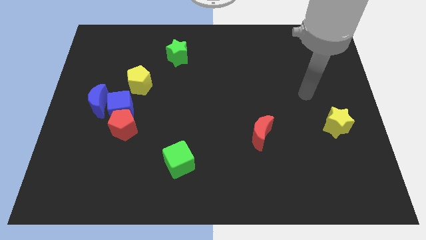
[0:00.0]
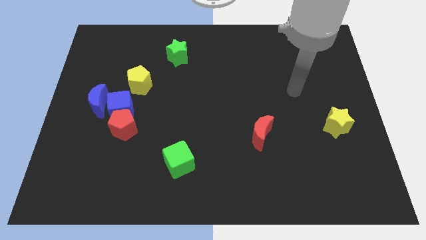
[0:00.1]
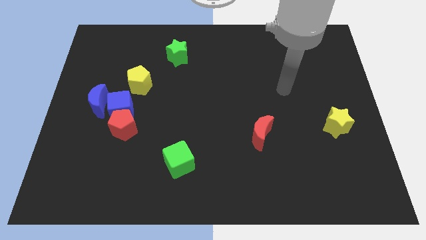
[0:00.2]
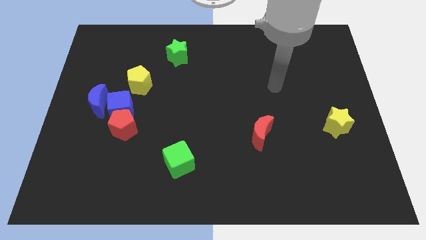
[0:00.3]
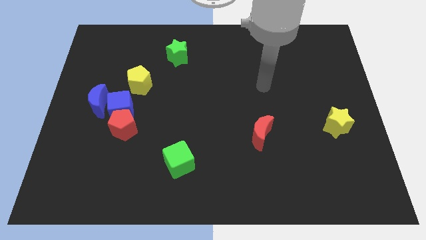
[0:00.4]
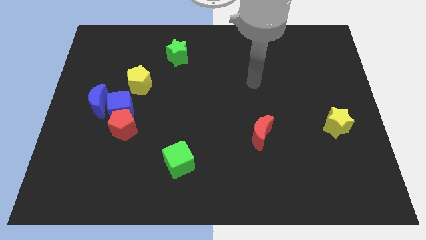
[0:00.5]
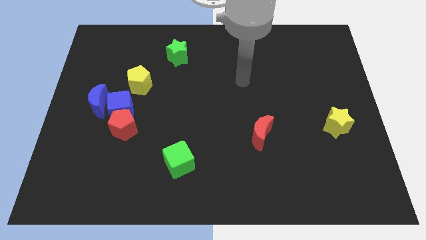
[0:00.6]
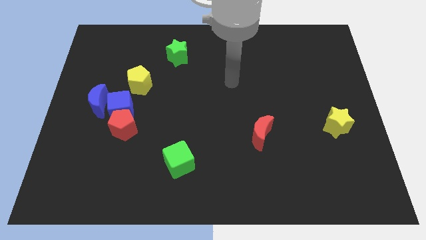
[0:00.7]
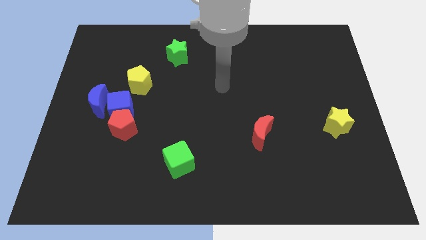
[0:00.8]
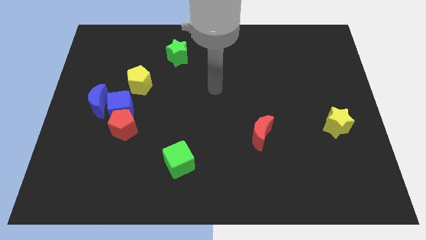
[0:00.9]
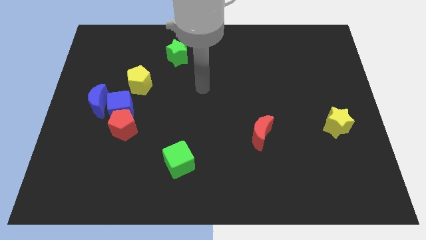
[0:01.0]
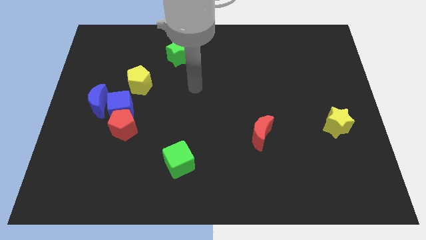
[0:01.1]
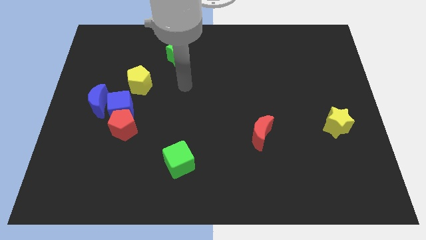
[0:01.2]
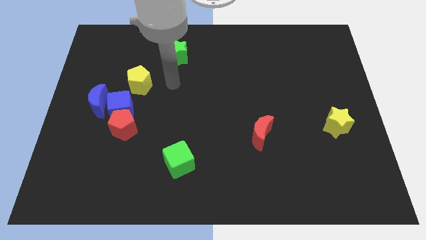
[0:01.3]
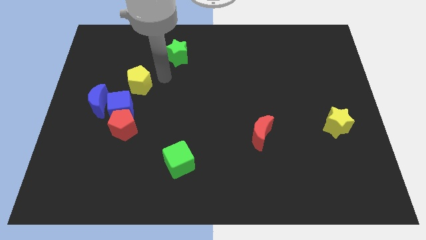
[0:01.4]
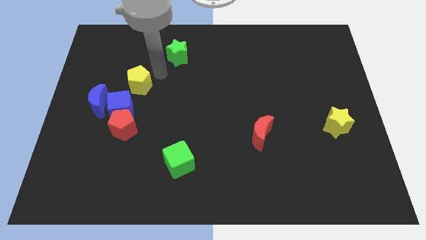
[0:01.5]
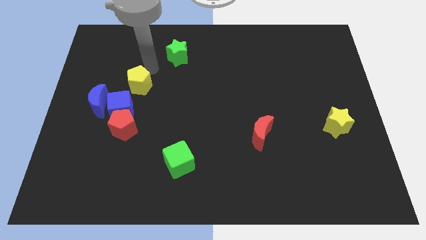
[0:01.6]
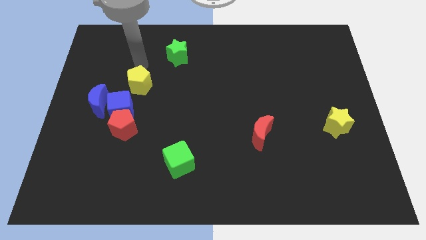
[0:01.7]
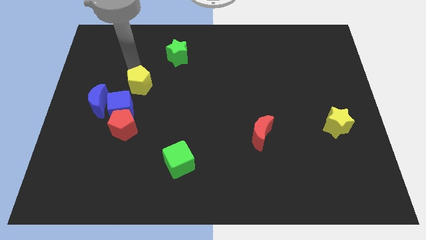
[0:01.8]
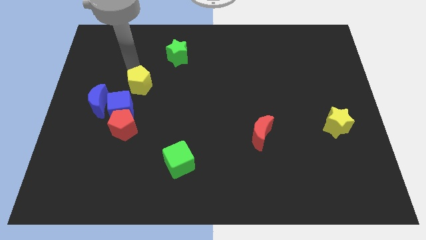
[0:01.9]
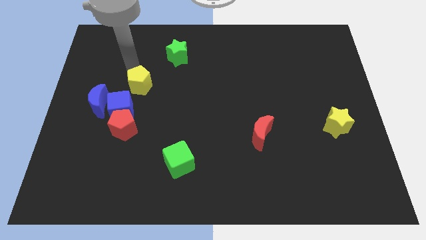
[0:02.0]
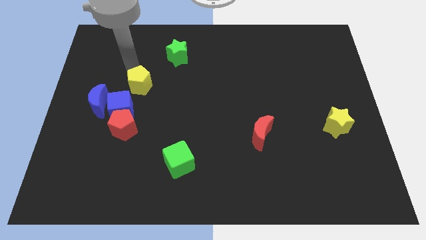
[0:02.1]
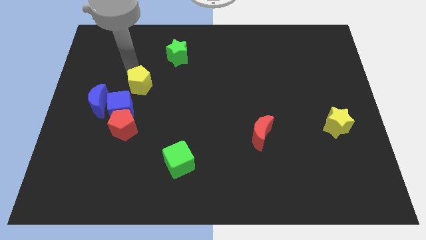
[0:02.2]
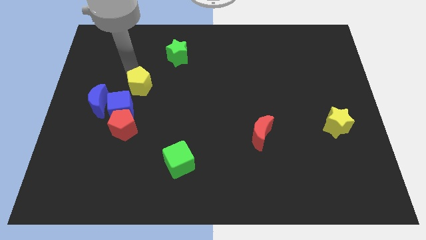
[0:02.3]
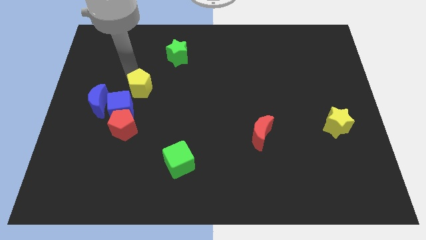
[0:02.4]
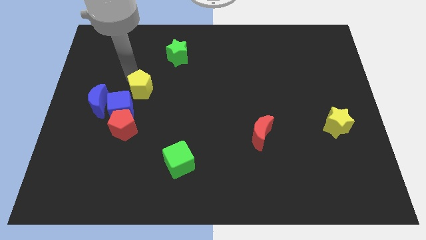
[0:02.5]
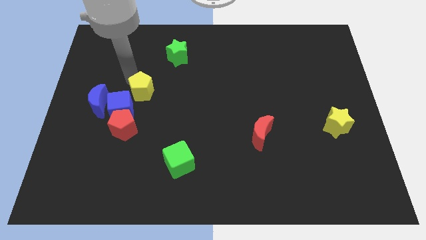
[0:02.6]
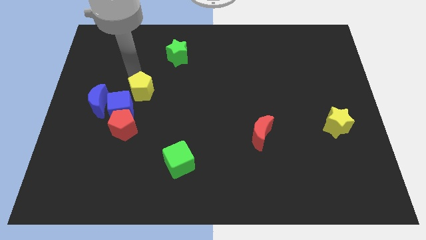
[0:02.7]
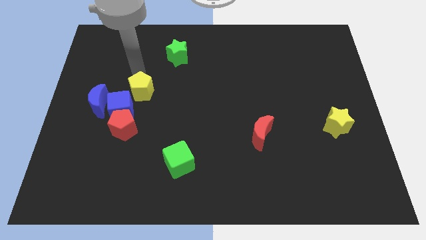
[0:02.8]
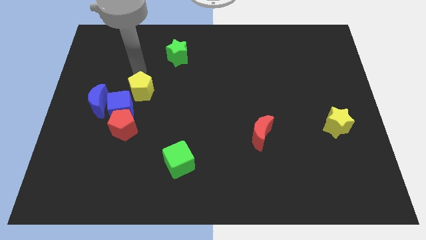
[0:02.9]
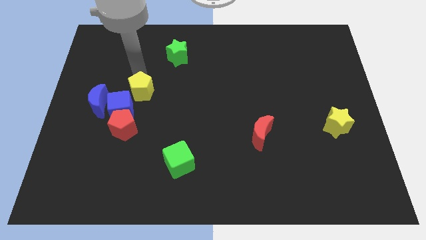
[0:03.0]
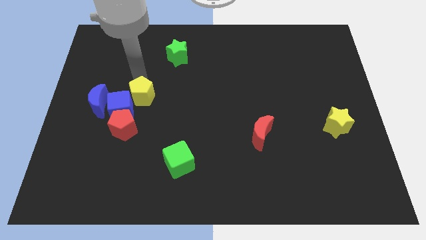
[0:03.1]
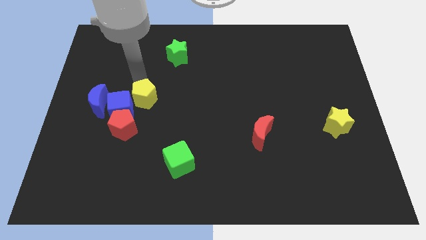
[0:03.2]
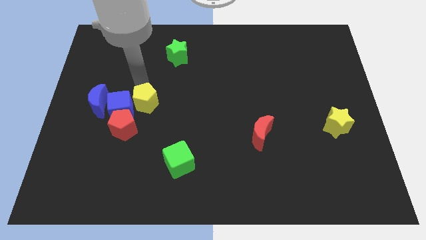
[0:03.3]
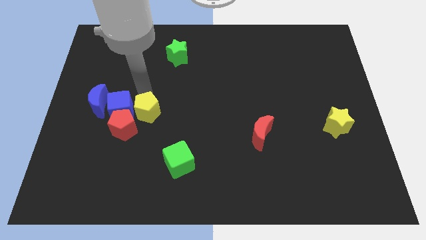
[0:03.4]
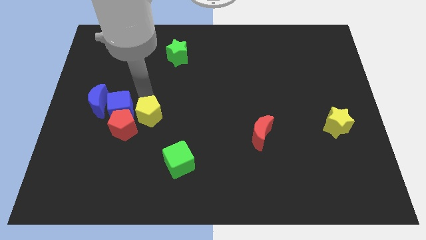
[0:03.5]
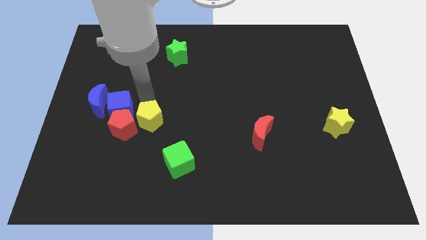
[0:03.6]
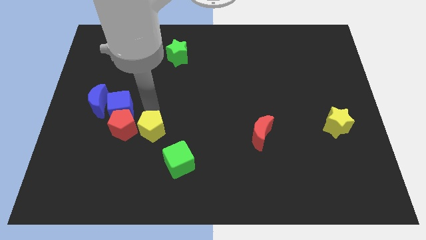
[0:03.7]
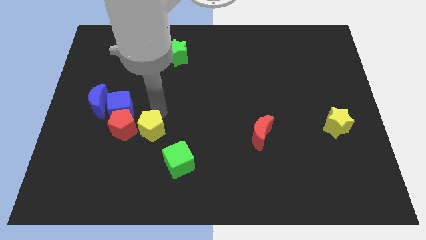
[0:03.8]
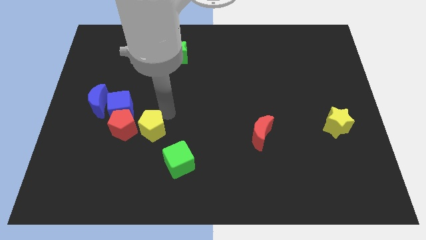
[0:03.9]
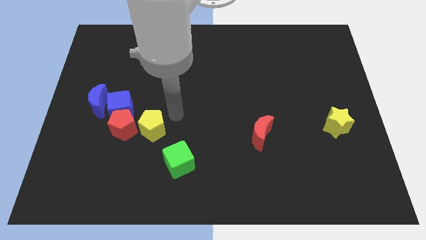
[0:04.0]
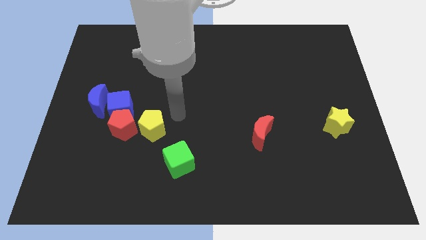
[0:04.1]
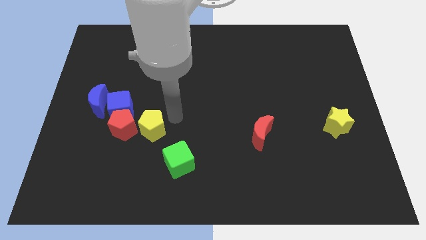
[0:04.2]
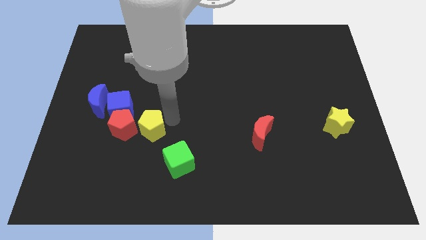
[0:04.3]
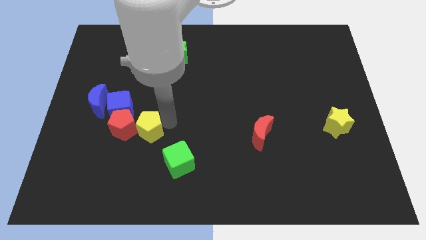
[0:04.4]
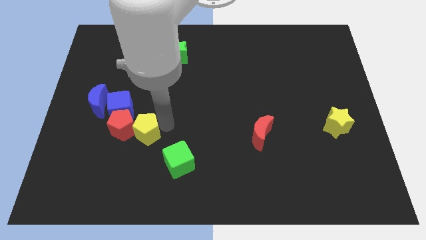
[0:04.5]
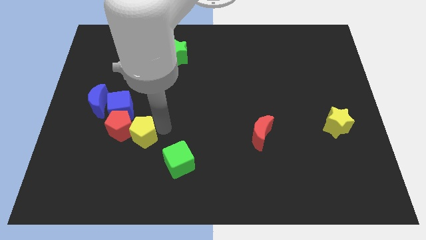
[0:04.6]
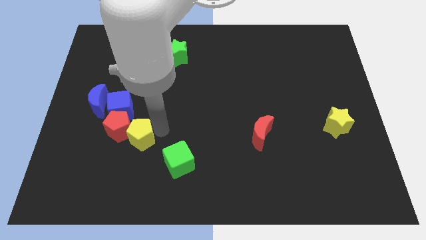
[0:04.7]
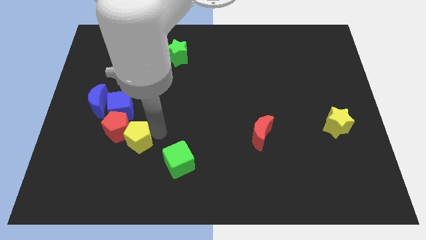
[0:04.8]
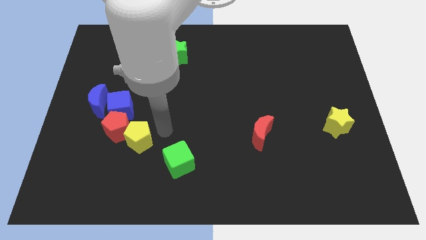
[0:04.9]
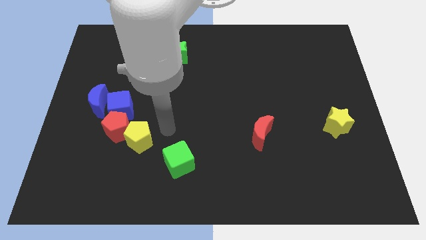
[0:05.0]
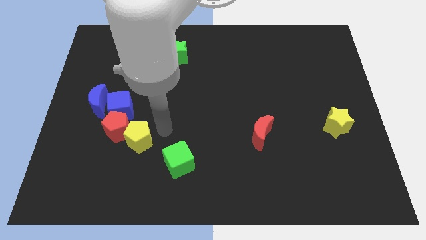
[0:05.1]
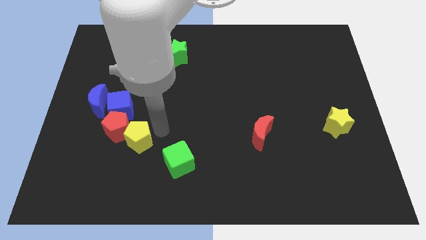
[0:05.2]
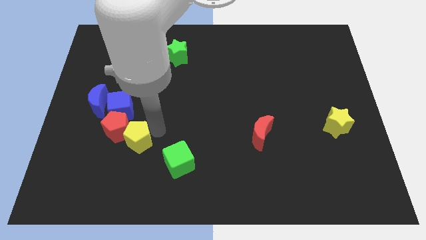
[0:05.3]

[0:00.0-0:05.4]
push the yellow pentagon to the bottom side of the blue cube

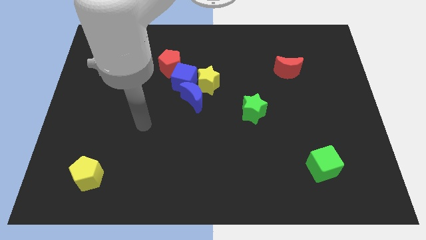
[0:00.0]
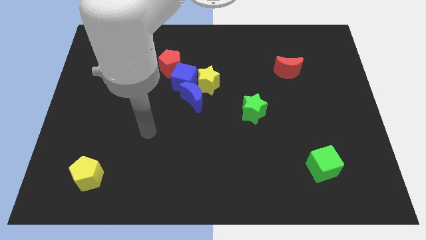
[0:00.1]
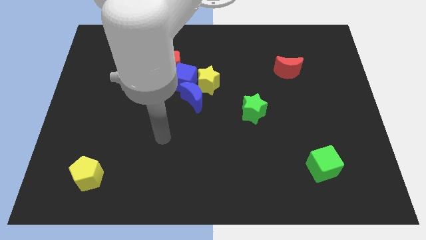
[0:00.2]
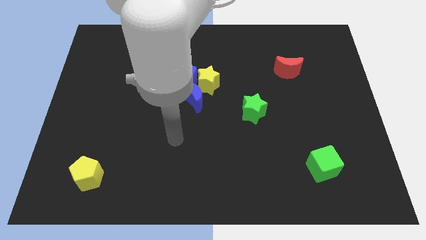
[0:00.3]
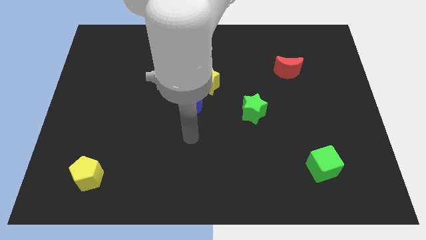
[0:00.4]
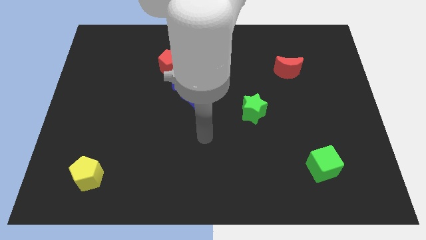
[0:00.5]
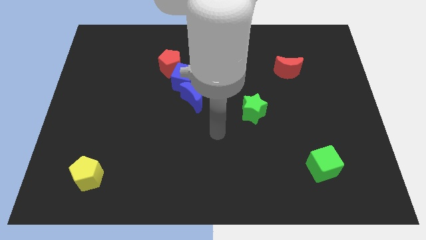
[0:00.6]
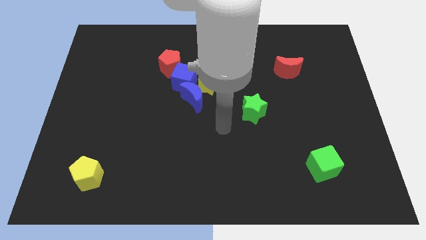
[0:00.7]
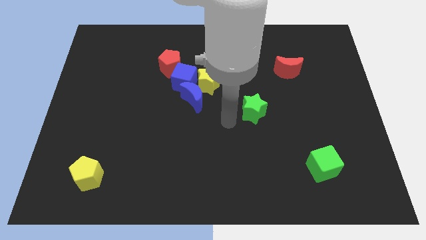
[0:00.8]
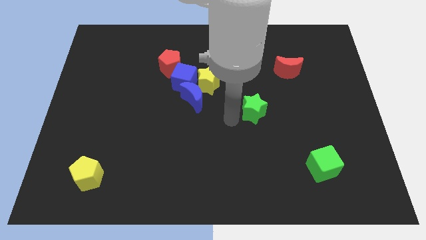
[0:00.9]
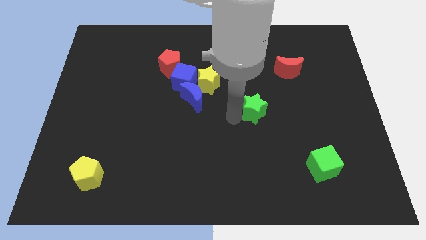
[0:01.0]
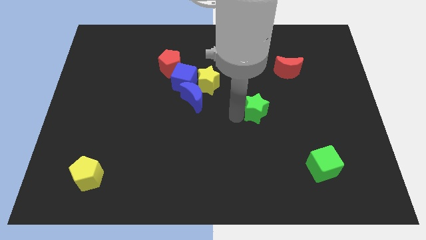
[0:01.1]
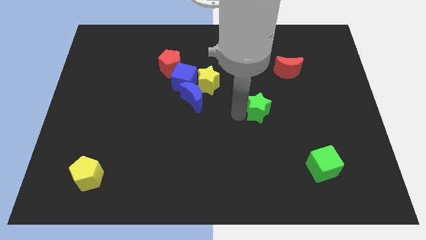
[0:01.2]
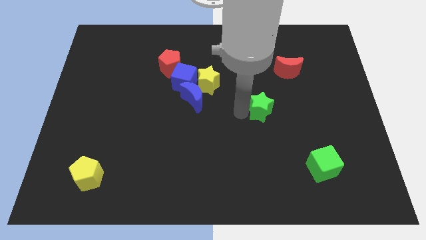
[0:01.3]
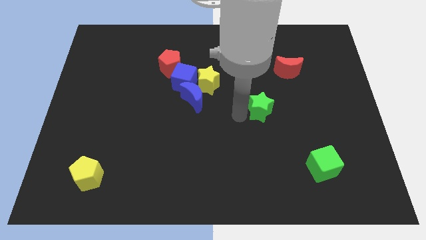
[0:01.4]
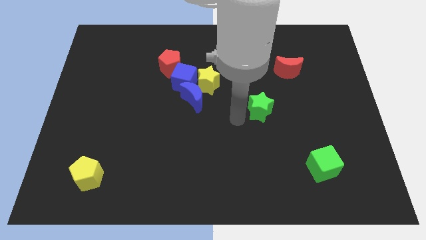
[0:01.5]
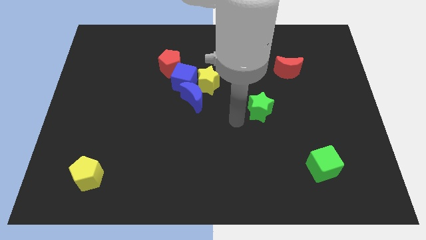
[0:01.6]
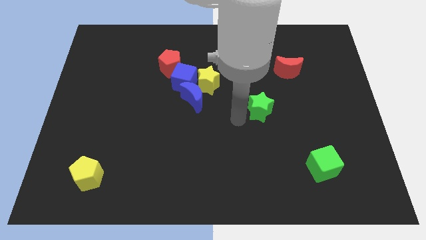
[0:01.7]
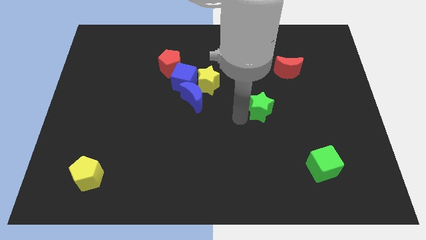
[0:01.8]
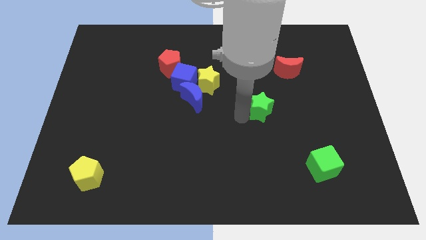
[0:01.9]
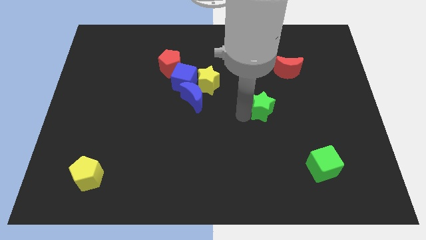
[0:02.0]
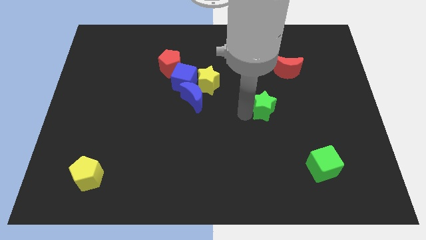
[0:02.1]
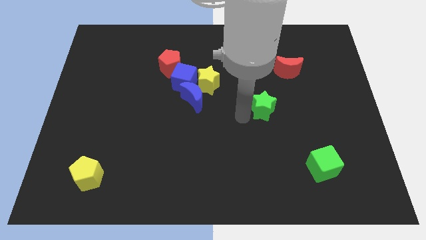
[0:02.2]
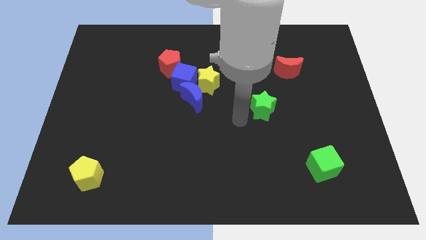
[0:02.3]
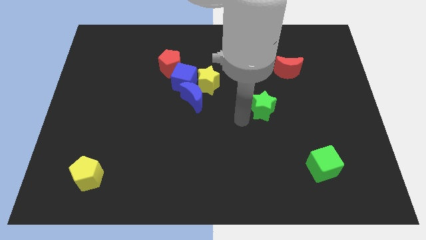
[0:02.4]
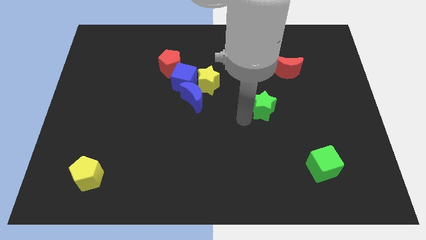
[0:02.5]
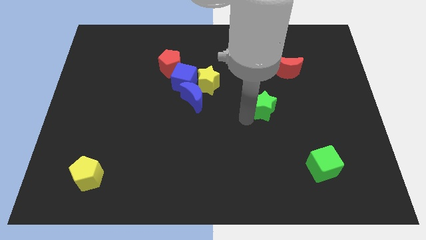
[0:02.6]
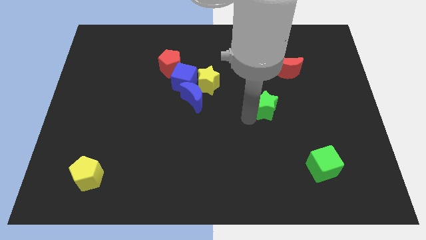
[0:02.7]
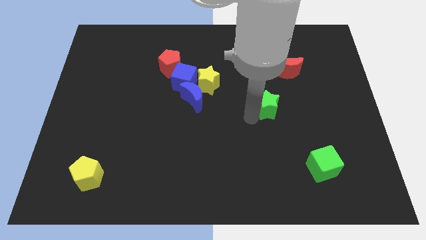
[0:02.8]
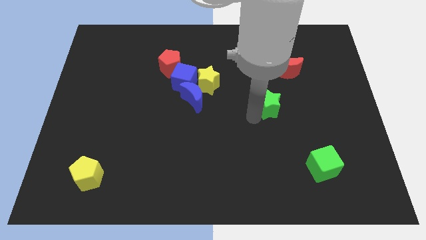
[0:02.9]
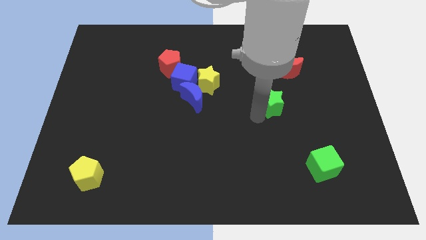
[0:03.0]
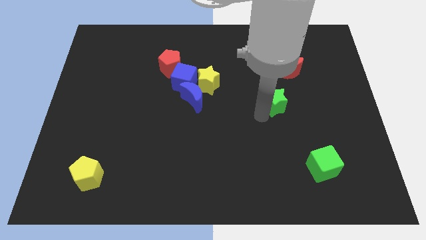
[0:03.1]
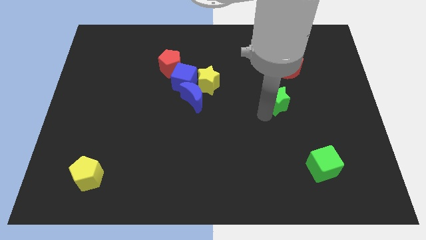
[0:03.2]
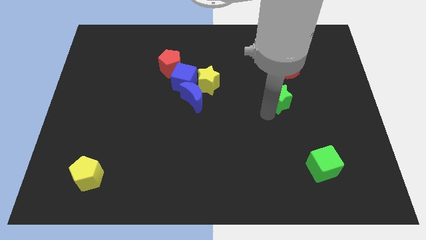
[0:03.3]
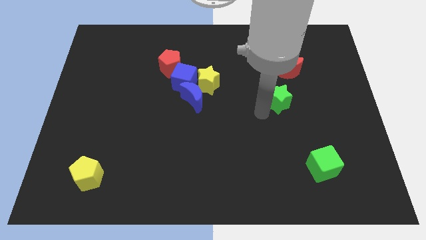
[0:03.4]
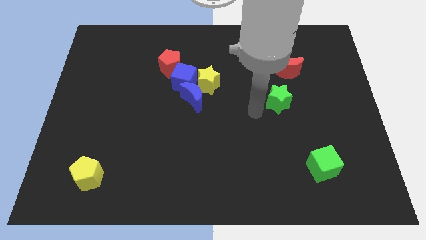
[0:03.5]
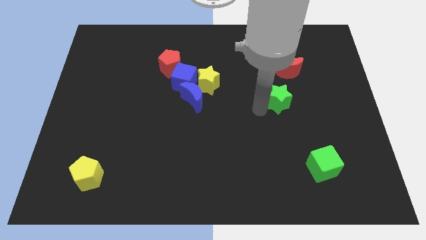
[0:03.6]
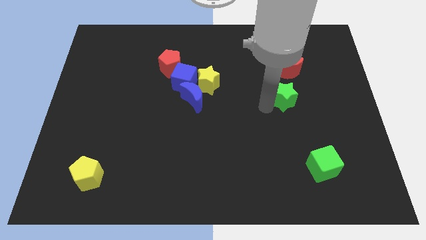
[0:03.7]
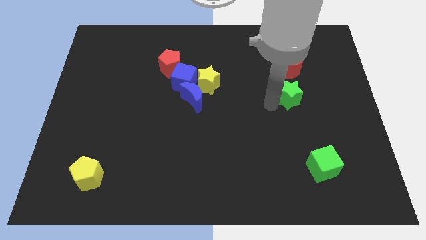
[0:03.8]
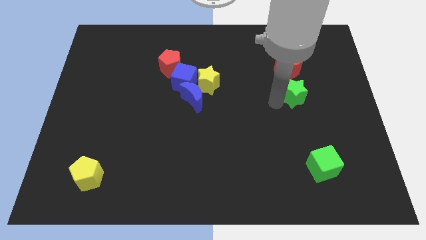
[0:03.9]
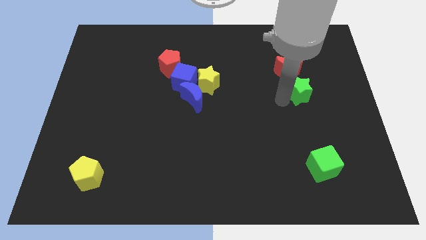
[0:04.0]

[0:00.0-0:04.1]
slide the green star diagonally down and to the right of the red moon
